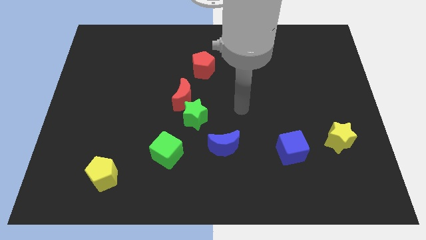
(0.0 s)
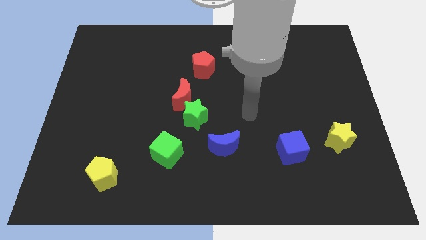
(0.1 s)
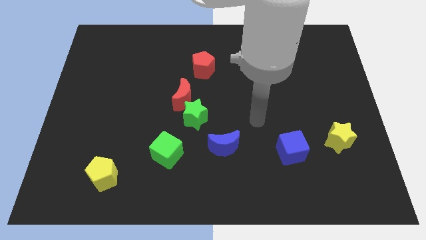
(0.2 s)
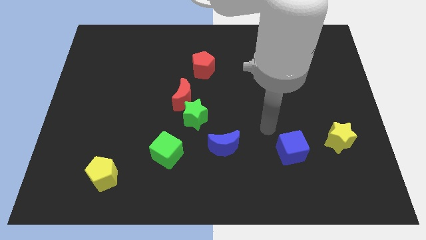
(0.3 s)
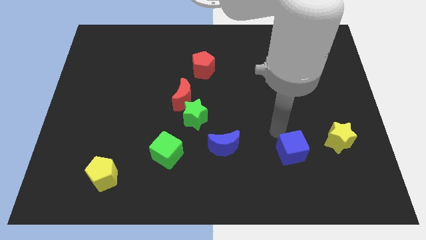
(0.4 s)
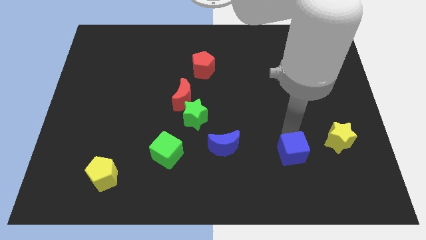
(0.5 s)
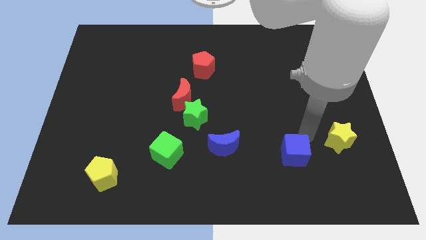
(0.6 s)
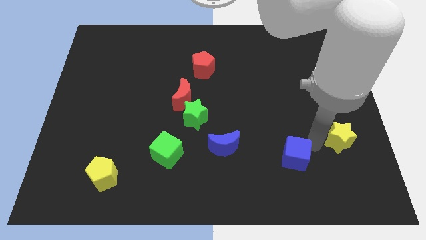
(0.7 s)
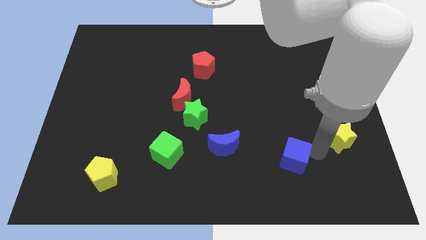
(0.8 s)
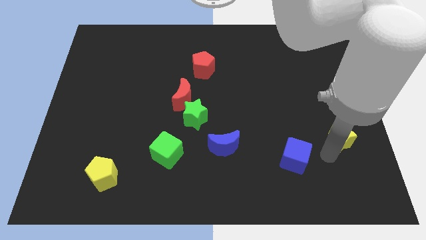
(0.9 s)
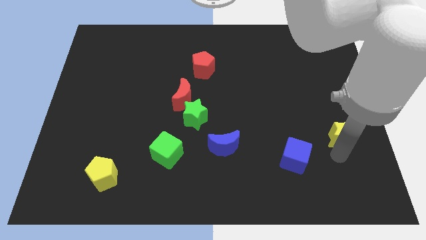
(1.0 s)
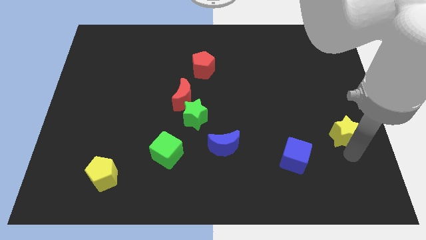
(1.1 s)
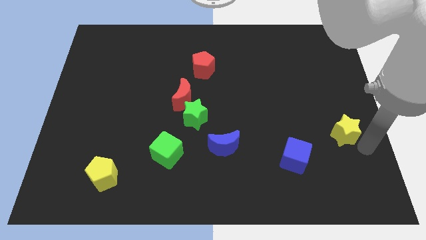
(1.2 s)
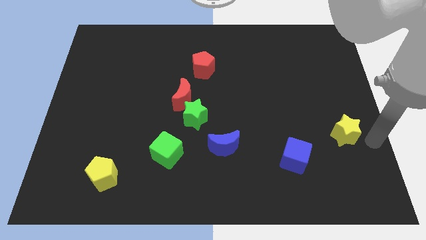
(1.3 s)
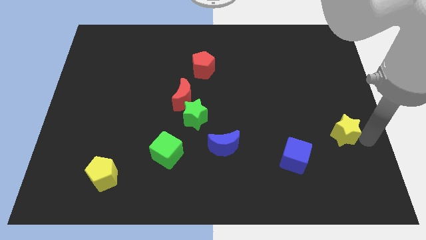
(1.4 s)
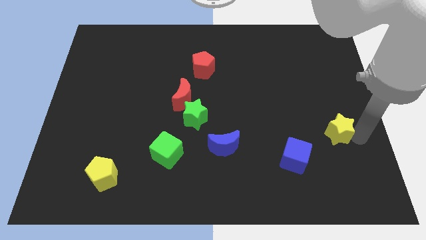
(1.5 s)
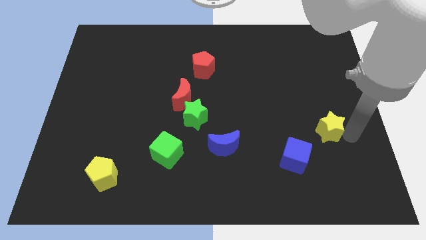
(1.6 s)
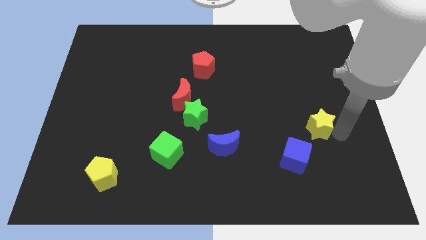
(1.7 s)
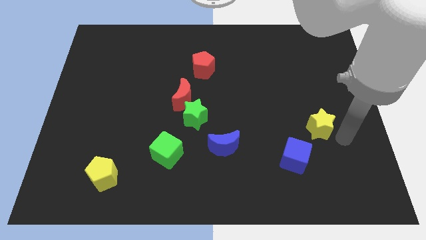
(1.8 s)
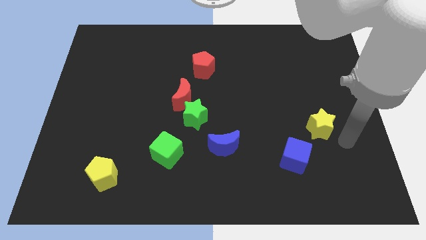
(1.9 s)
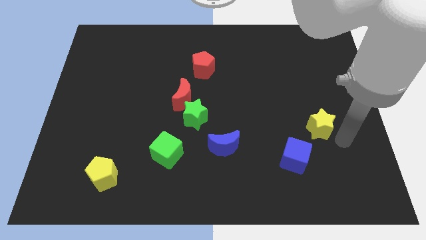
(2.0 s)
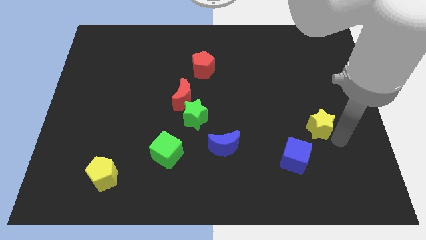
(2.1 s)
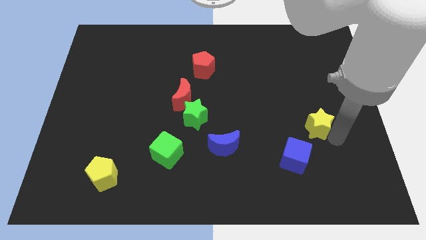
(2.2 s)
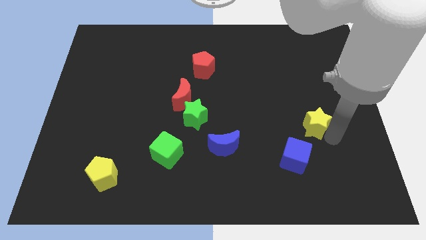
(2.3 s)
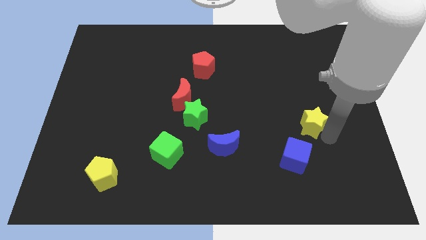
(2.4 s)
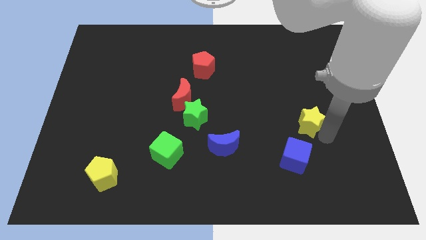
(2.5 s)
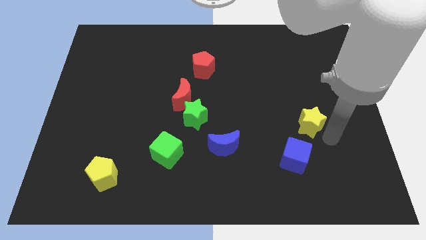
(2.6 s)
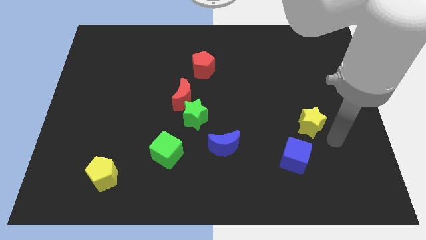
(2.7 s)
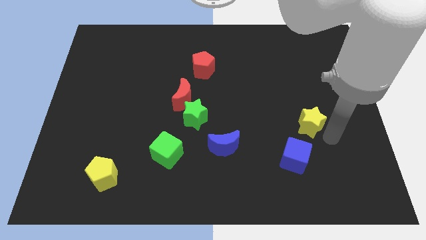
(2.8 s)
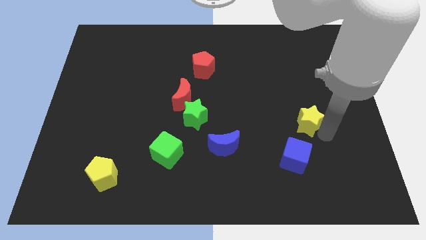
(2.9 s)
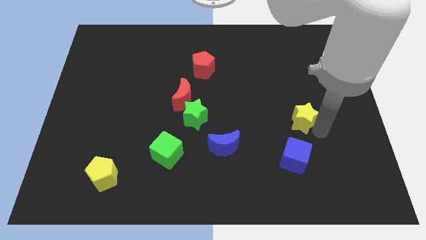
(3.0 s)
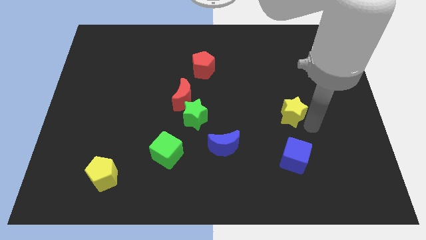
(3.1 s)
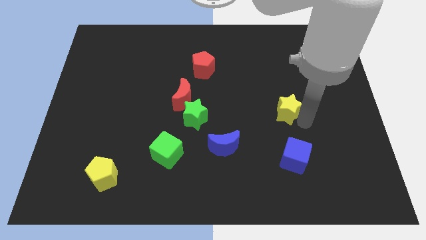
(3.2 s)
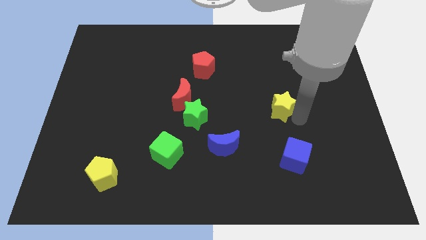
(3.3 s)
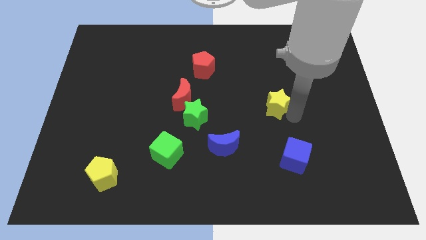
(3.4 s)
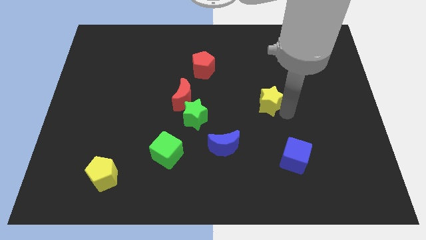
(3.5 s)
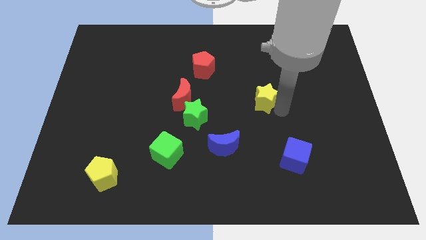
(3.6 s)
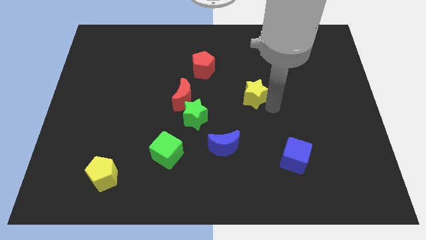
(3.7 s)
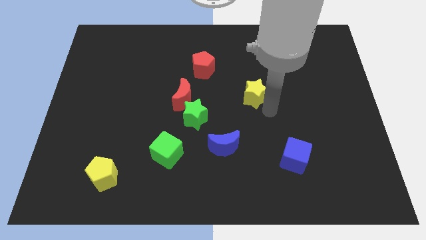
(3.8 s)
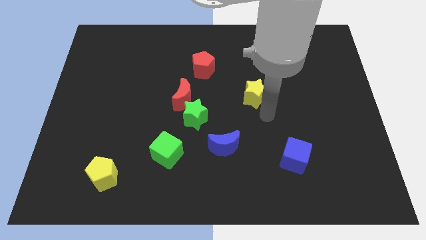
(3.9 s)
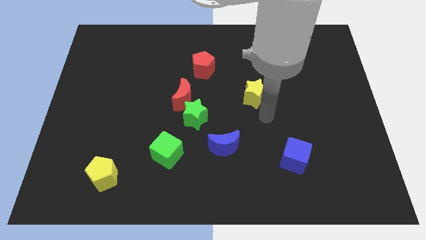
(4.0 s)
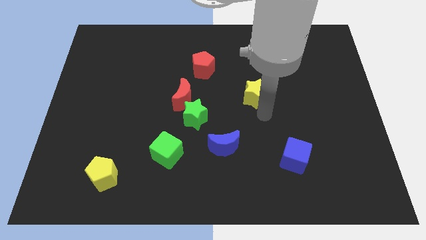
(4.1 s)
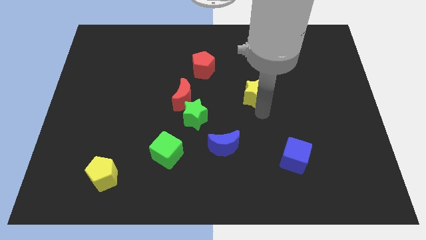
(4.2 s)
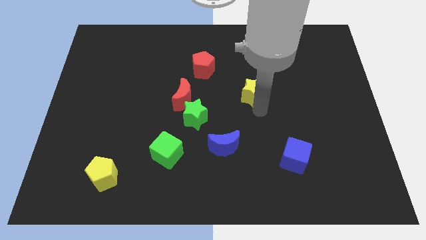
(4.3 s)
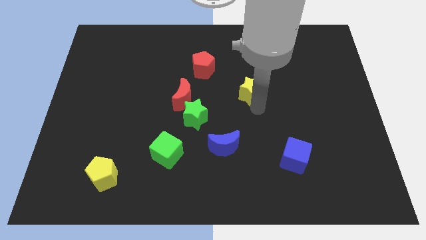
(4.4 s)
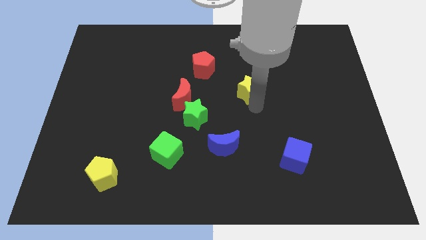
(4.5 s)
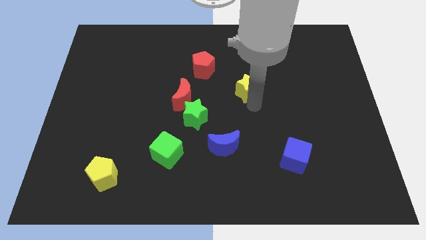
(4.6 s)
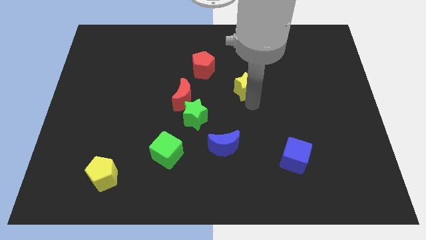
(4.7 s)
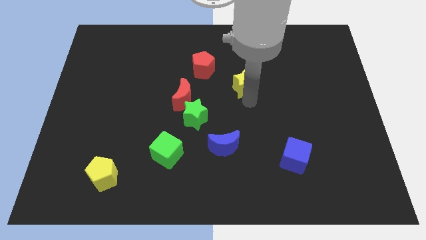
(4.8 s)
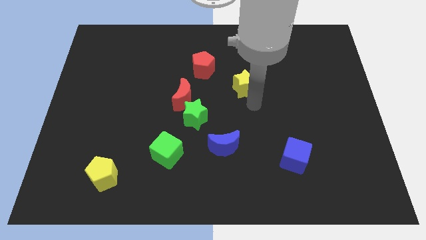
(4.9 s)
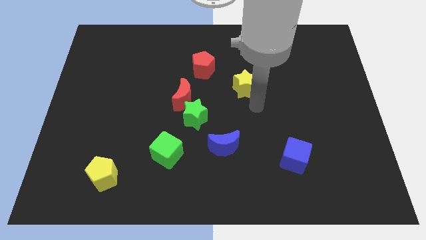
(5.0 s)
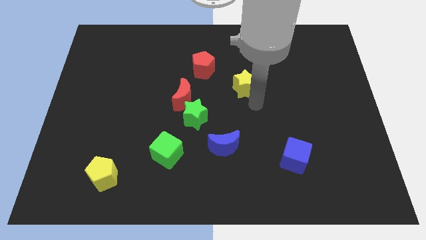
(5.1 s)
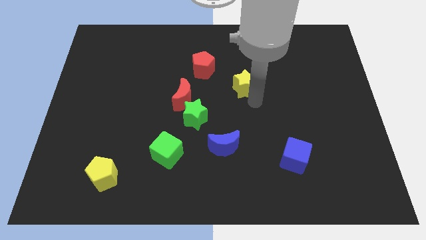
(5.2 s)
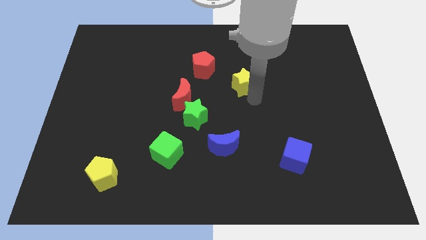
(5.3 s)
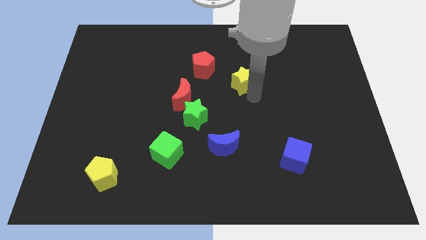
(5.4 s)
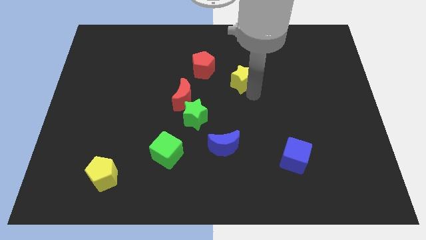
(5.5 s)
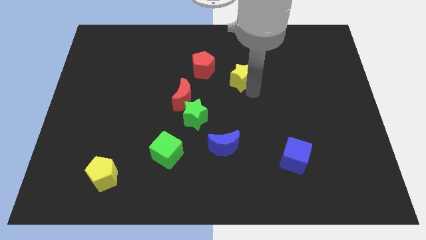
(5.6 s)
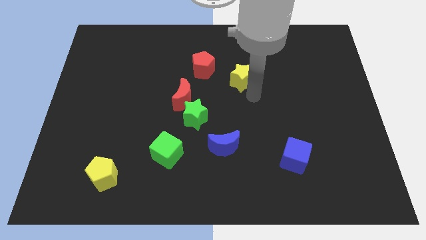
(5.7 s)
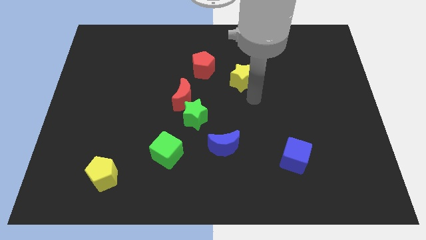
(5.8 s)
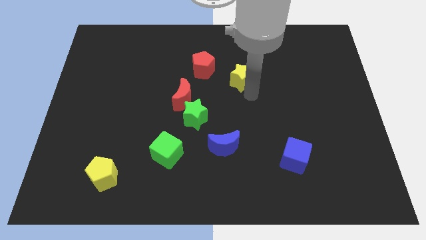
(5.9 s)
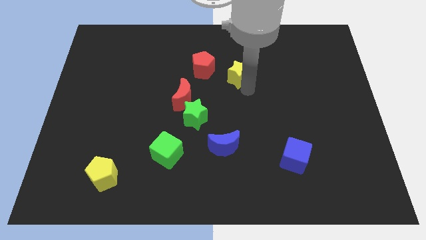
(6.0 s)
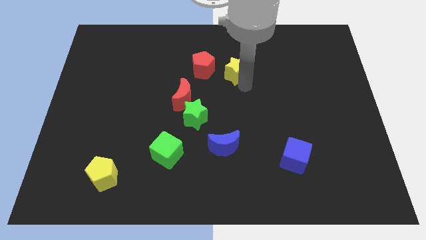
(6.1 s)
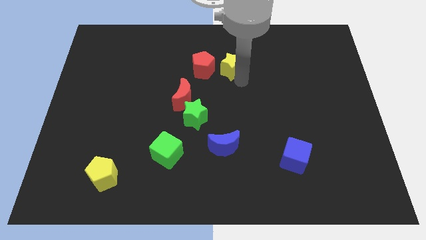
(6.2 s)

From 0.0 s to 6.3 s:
put the yellow star to the top right side of the red pentagon

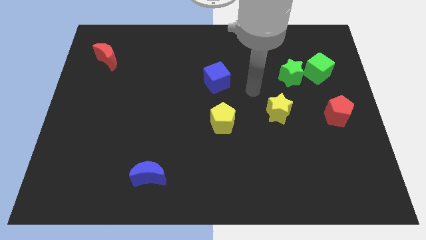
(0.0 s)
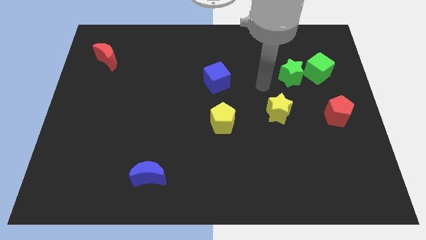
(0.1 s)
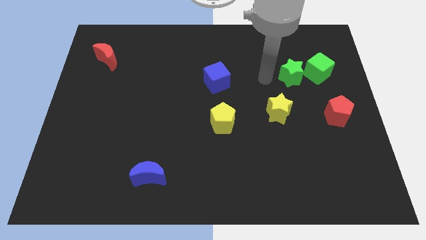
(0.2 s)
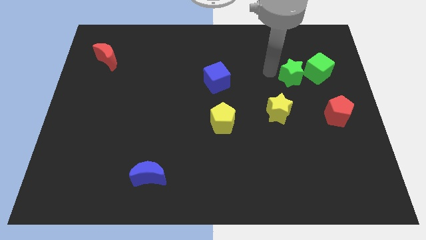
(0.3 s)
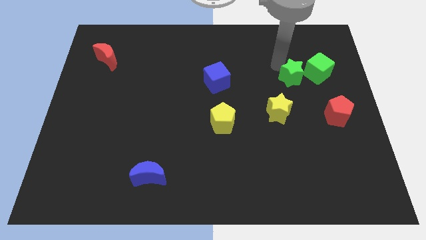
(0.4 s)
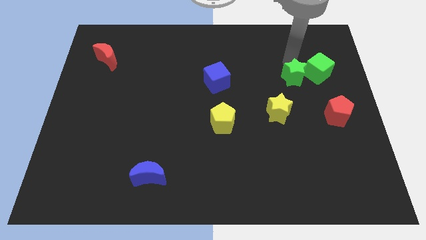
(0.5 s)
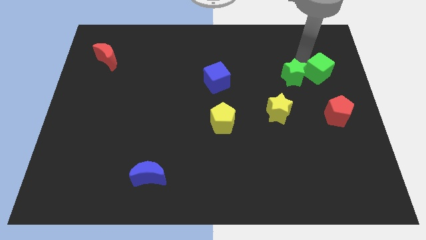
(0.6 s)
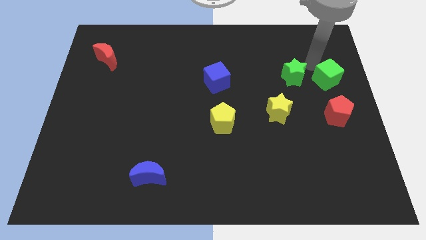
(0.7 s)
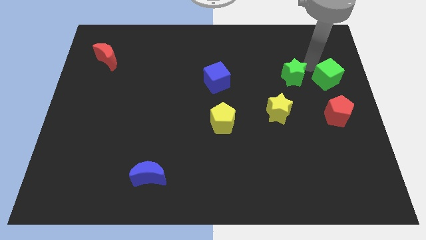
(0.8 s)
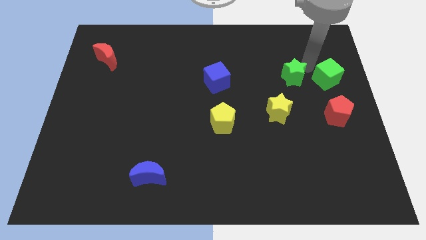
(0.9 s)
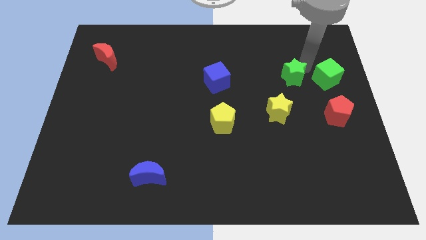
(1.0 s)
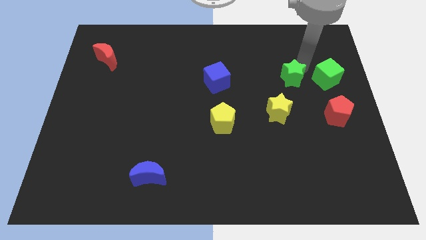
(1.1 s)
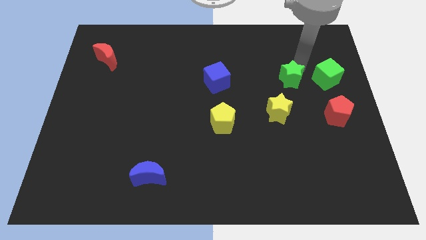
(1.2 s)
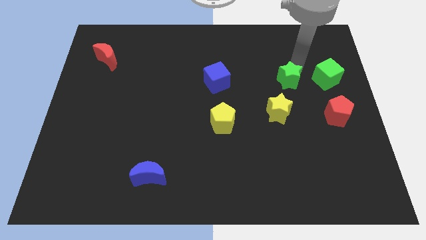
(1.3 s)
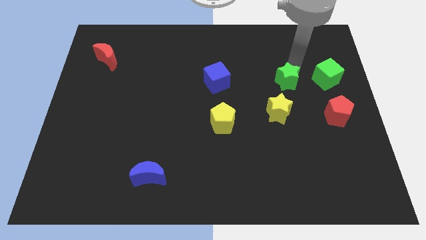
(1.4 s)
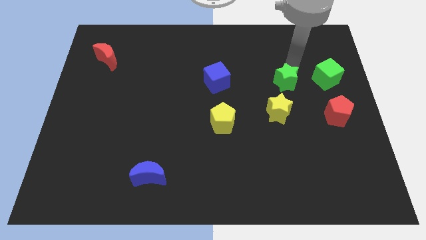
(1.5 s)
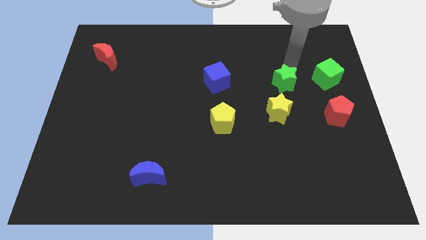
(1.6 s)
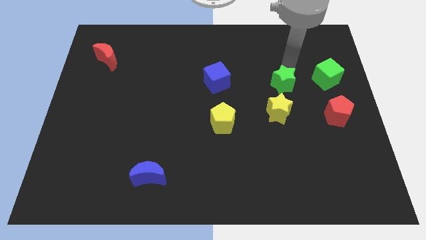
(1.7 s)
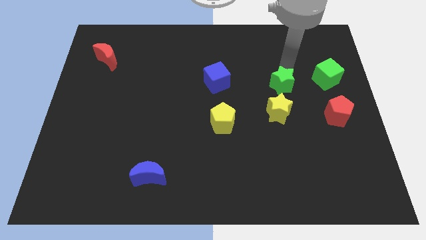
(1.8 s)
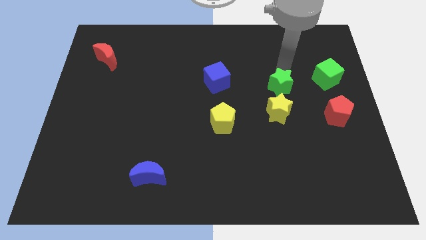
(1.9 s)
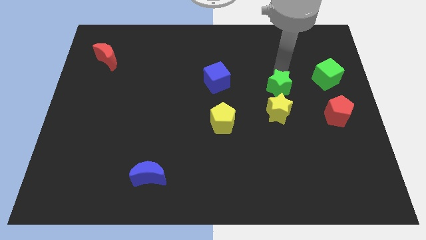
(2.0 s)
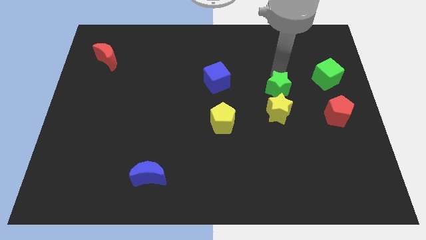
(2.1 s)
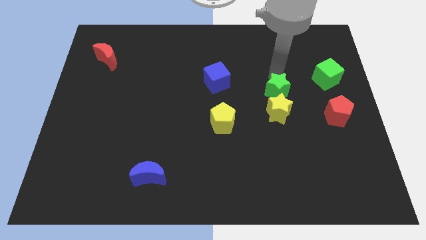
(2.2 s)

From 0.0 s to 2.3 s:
slide the green star to the top left of the yellow star

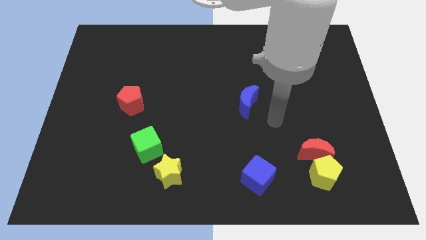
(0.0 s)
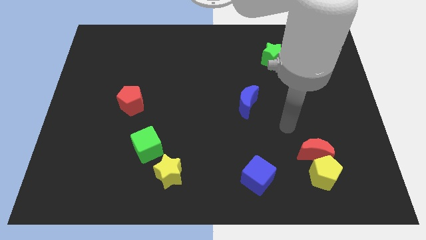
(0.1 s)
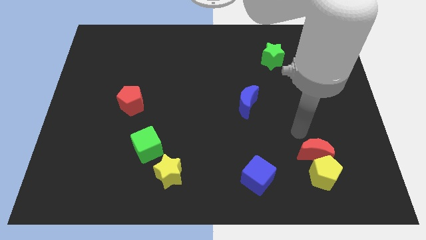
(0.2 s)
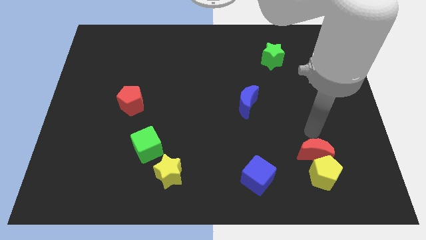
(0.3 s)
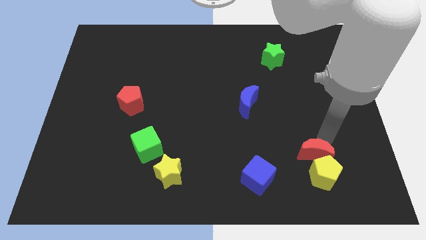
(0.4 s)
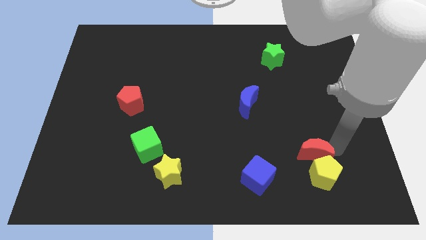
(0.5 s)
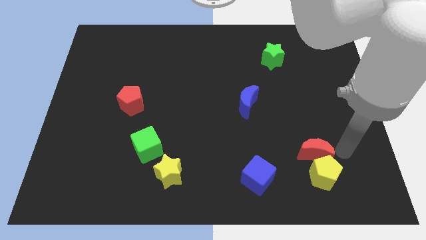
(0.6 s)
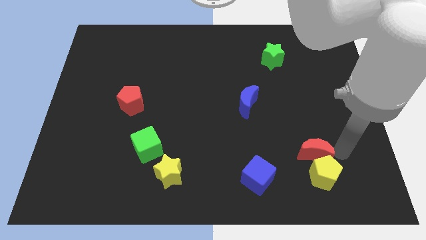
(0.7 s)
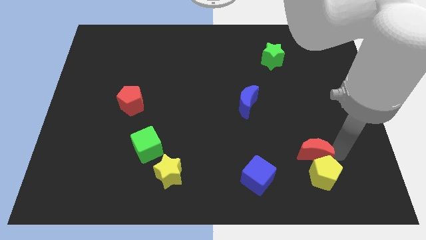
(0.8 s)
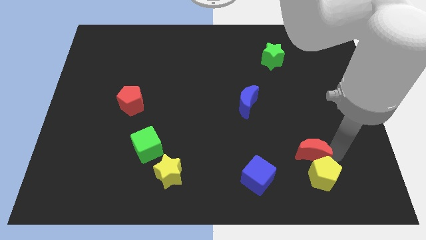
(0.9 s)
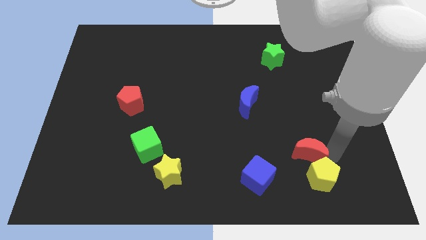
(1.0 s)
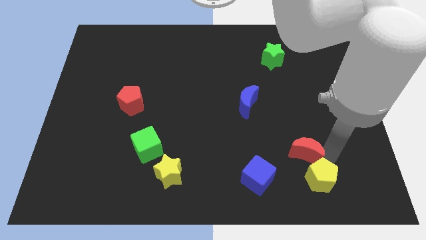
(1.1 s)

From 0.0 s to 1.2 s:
push the red moon to the top right side of the blue cube
